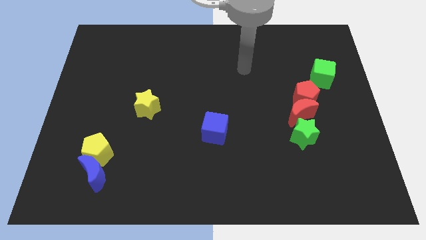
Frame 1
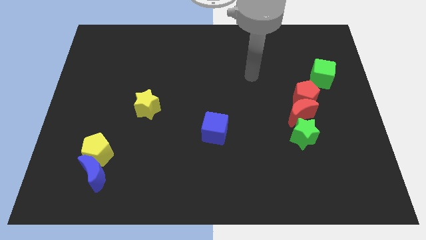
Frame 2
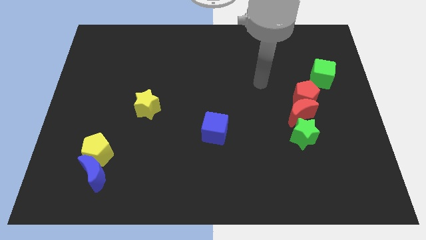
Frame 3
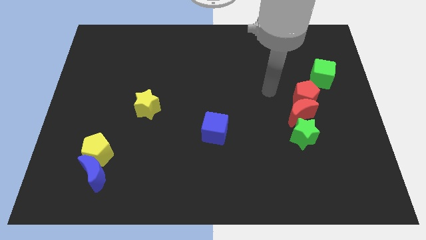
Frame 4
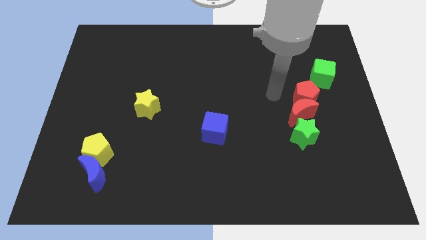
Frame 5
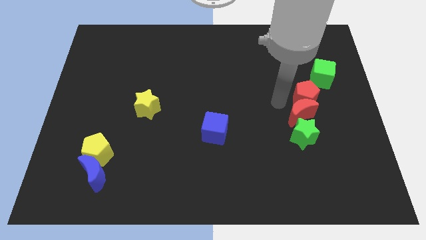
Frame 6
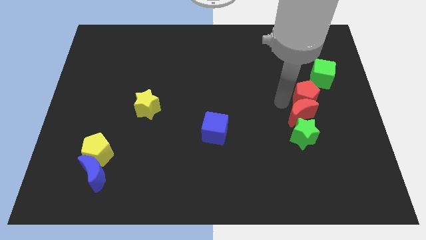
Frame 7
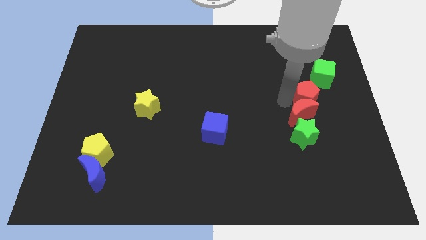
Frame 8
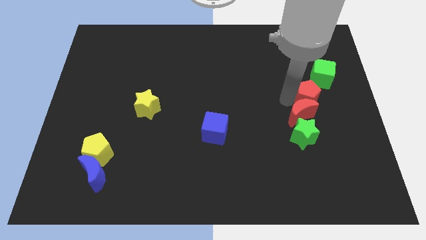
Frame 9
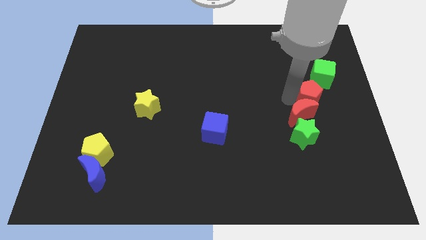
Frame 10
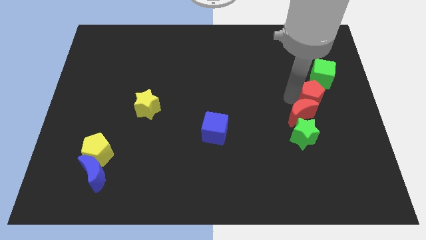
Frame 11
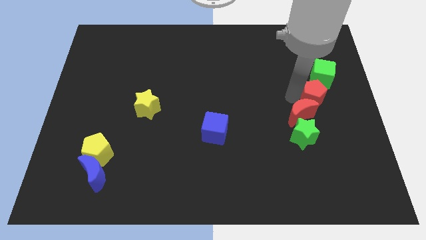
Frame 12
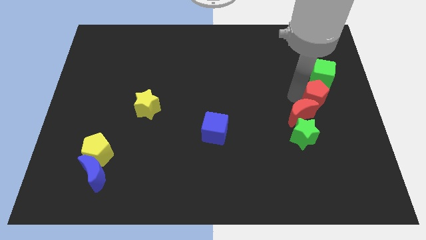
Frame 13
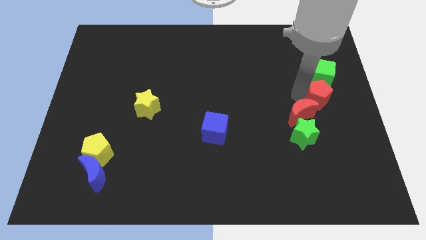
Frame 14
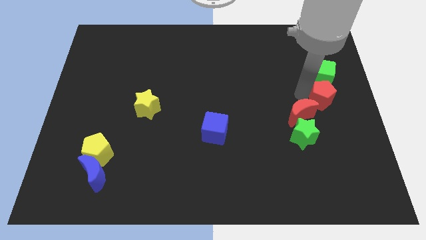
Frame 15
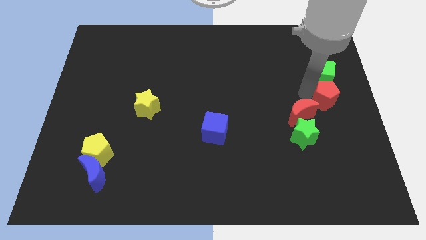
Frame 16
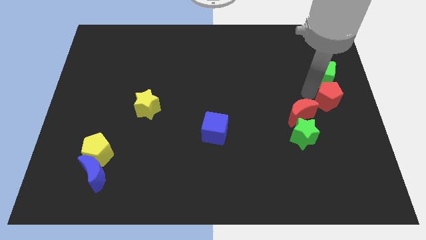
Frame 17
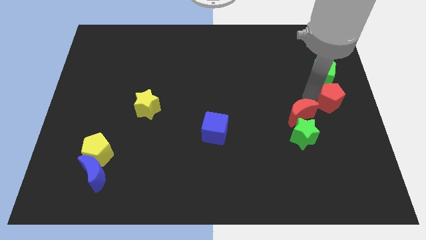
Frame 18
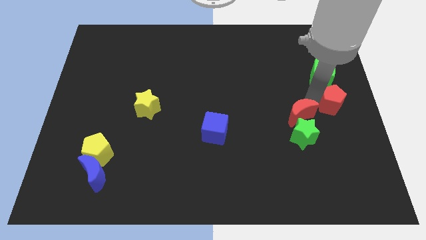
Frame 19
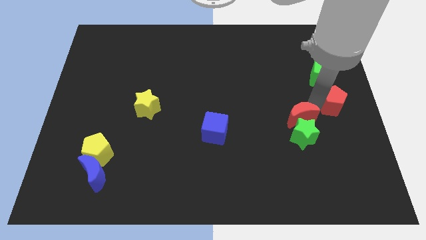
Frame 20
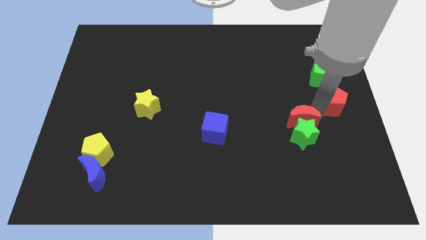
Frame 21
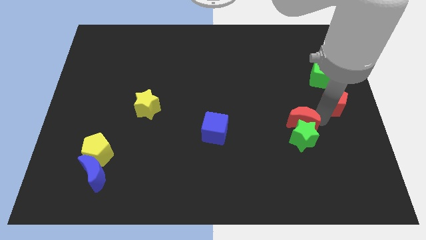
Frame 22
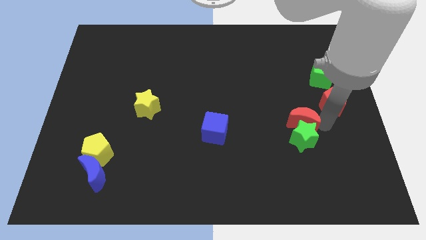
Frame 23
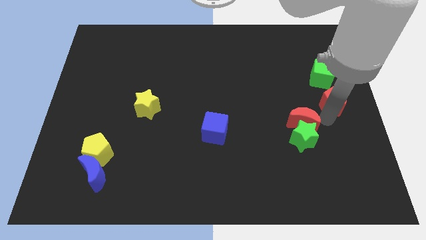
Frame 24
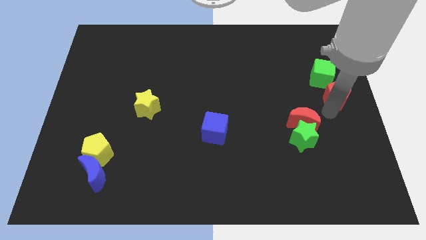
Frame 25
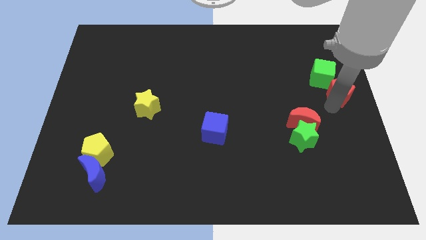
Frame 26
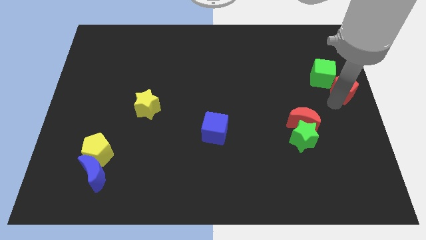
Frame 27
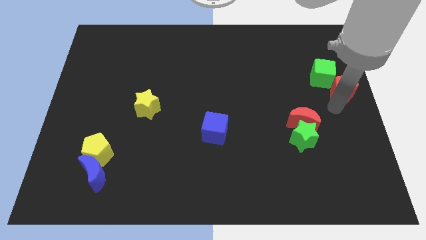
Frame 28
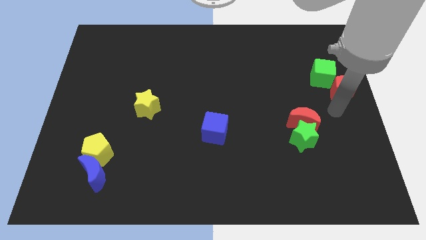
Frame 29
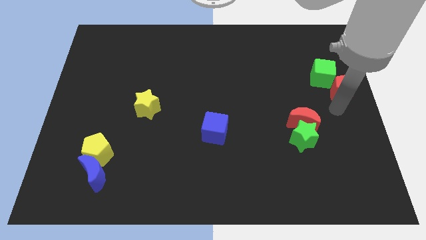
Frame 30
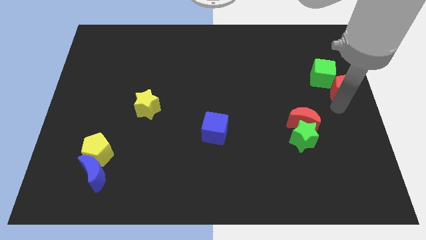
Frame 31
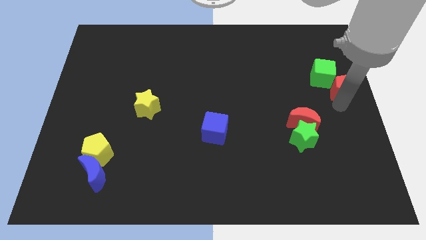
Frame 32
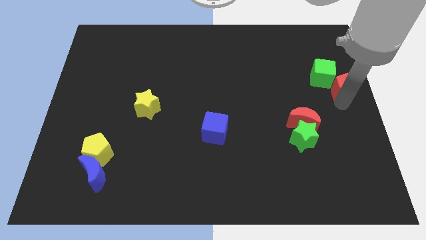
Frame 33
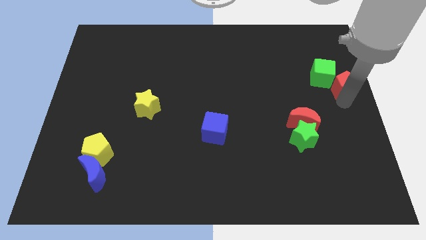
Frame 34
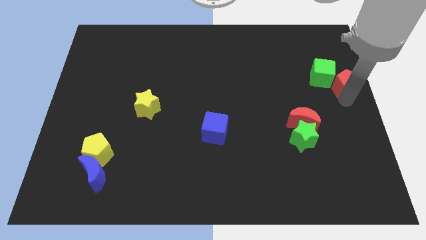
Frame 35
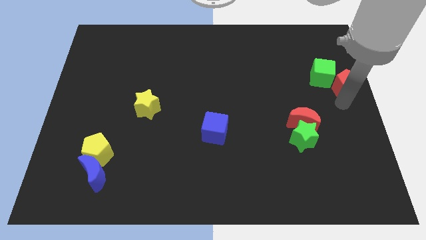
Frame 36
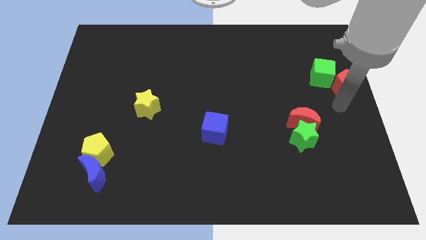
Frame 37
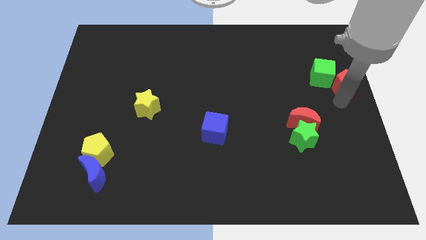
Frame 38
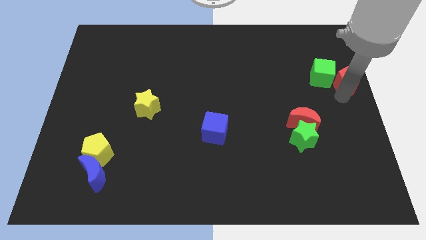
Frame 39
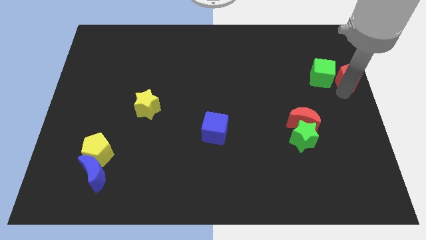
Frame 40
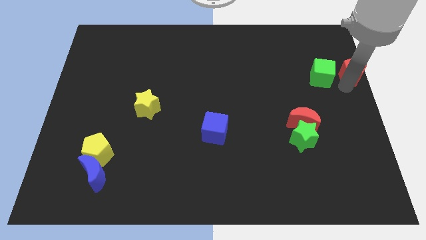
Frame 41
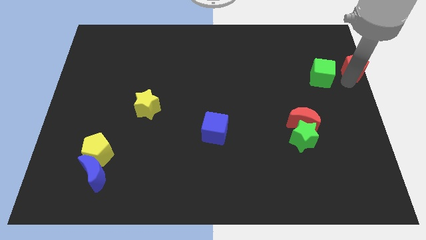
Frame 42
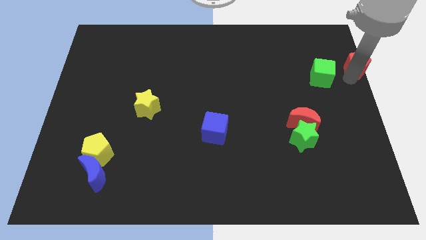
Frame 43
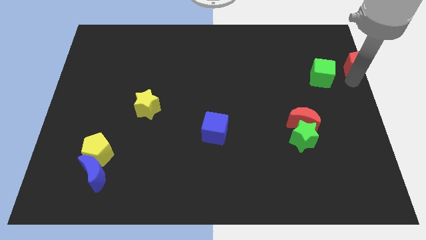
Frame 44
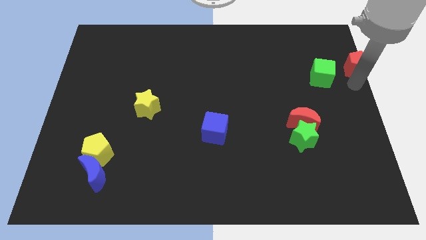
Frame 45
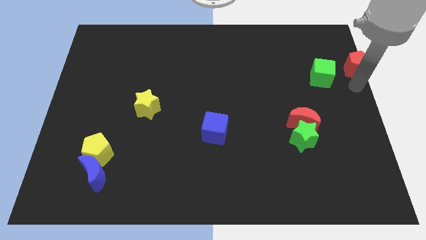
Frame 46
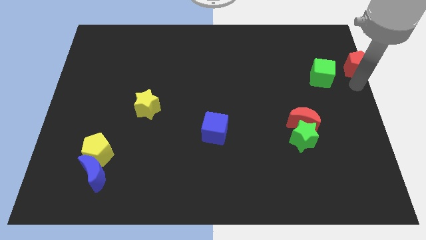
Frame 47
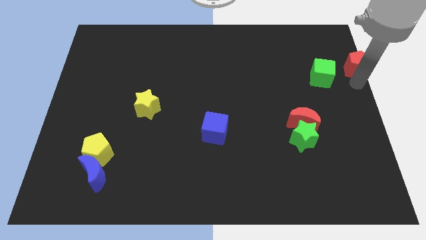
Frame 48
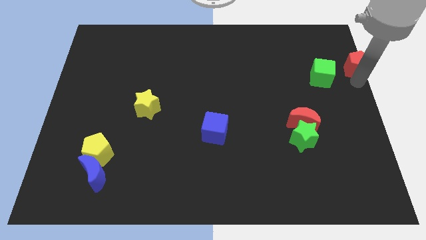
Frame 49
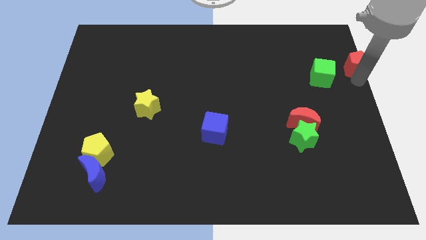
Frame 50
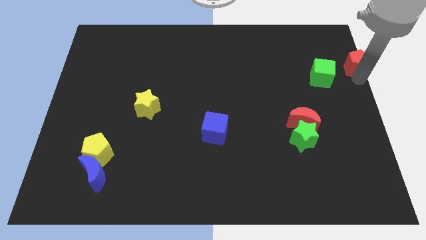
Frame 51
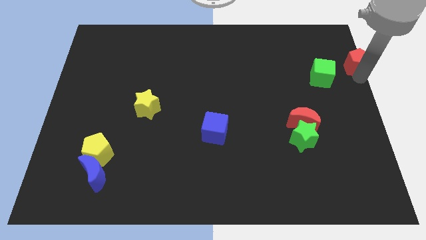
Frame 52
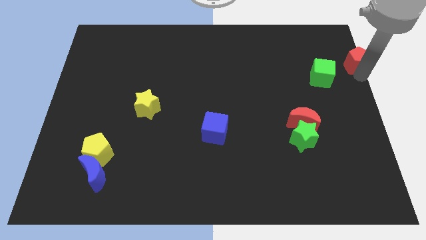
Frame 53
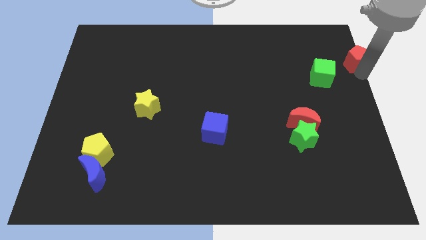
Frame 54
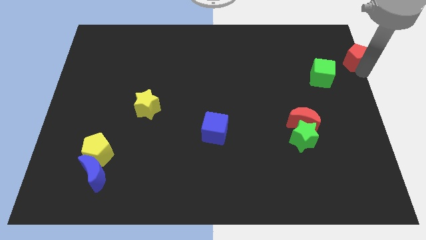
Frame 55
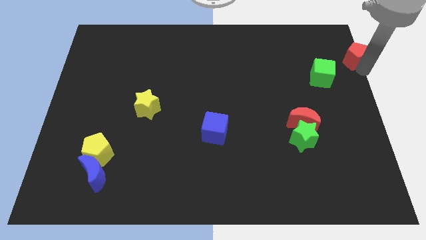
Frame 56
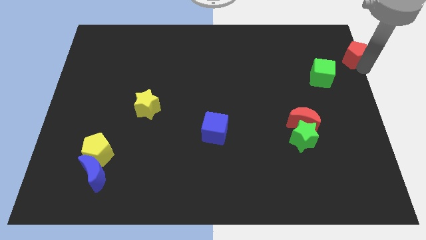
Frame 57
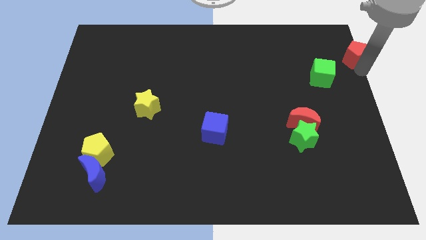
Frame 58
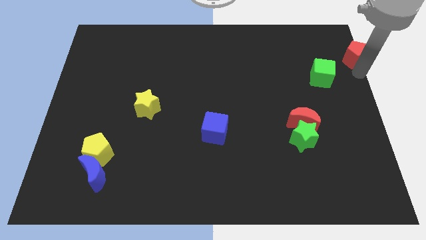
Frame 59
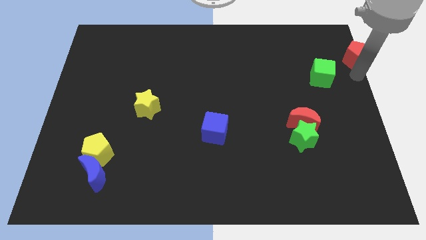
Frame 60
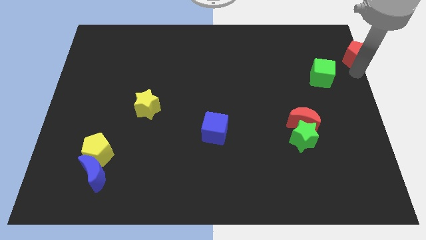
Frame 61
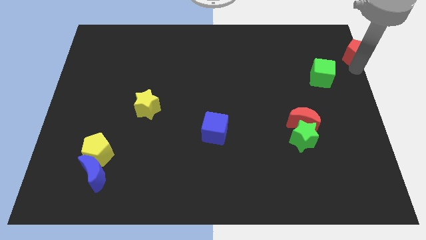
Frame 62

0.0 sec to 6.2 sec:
push the red pentagon to the top right
